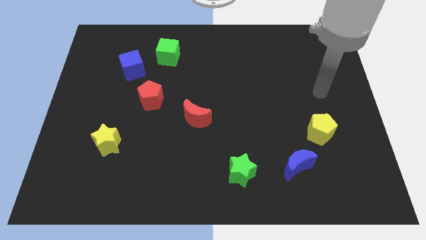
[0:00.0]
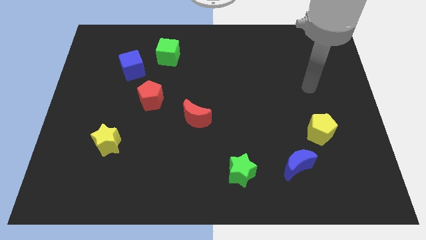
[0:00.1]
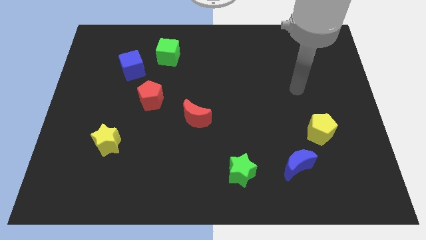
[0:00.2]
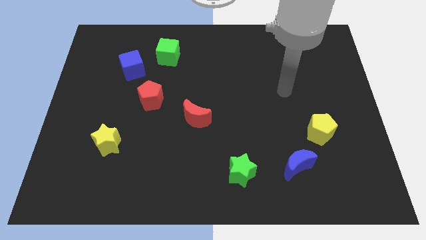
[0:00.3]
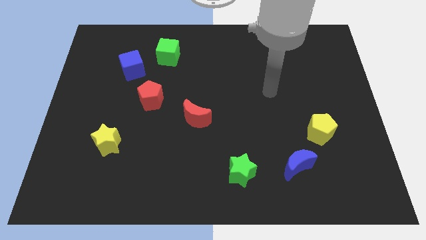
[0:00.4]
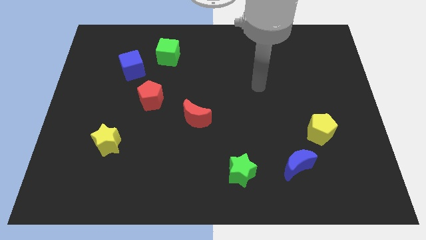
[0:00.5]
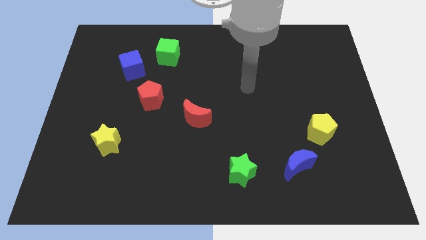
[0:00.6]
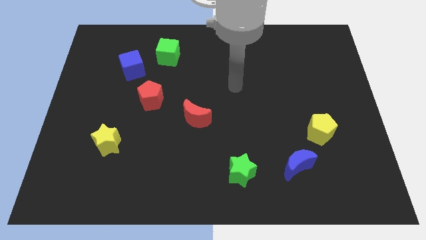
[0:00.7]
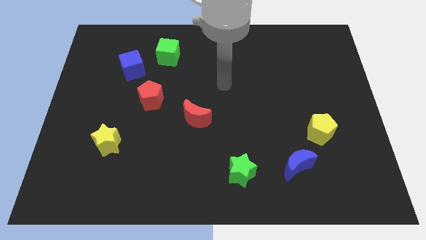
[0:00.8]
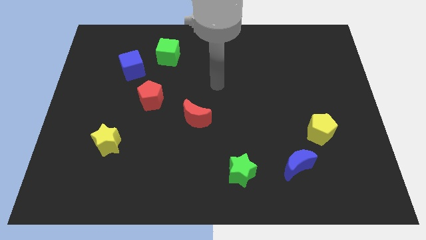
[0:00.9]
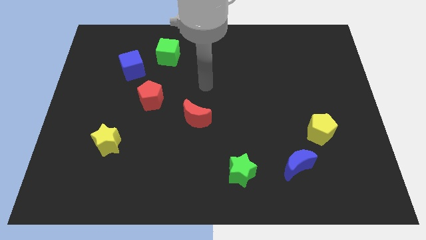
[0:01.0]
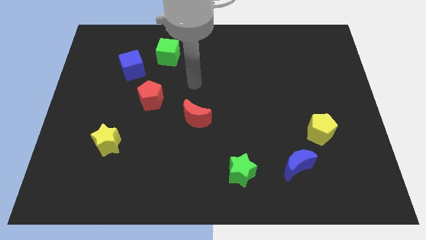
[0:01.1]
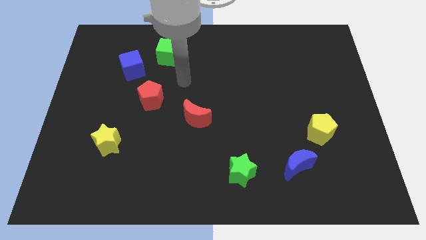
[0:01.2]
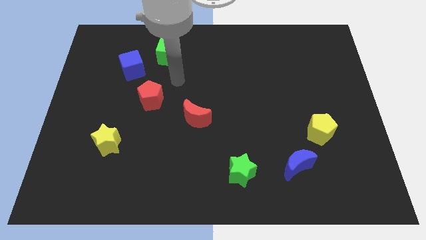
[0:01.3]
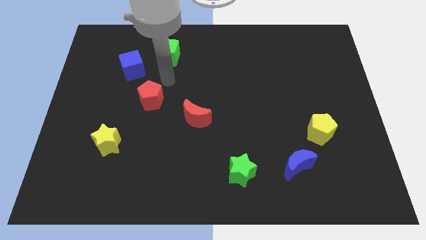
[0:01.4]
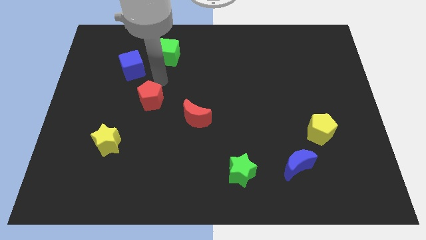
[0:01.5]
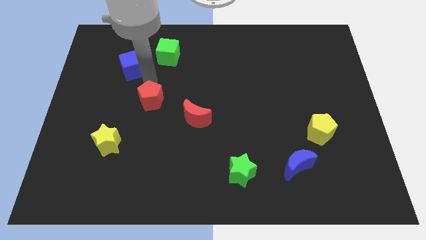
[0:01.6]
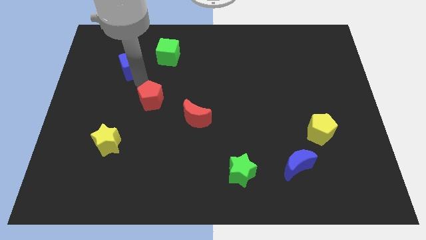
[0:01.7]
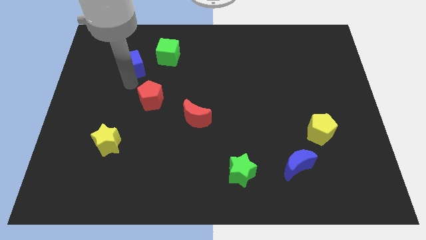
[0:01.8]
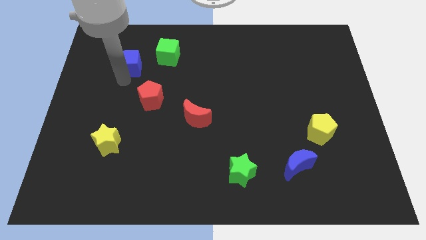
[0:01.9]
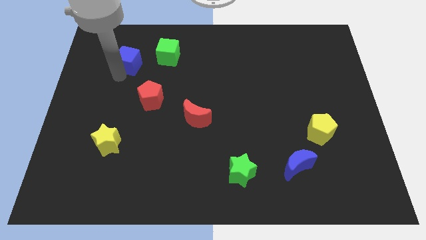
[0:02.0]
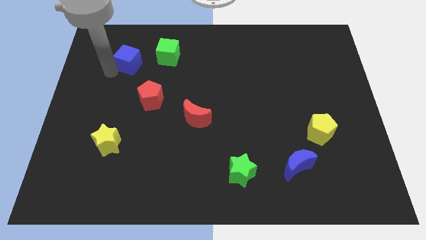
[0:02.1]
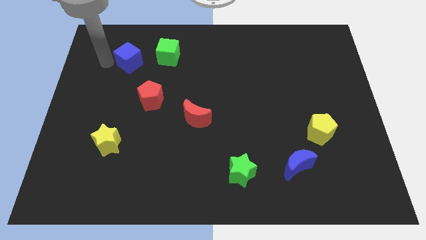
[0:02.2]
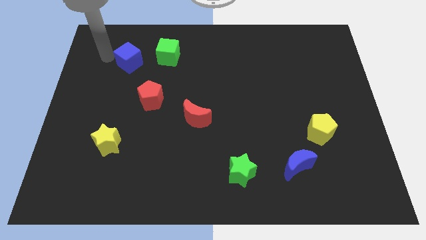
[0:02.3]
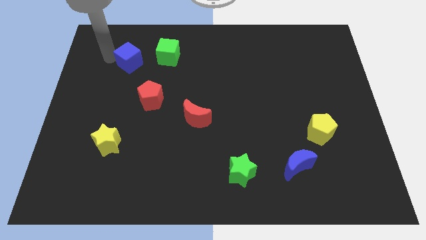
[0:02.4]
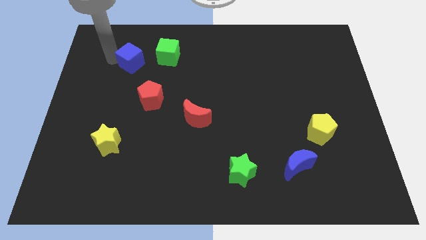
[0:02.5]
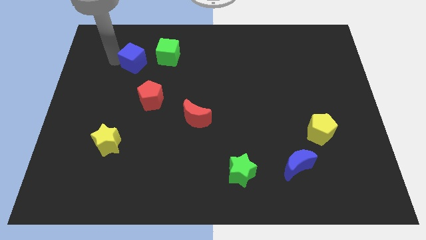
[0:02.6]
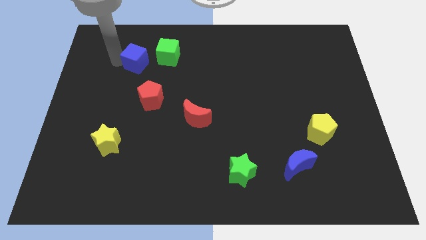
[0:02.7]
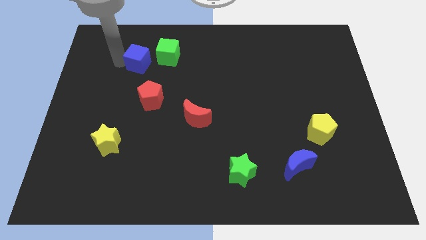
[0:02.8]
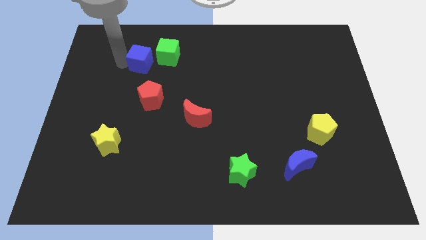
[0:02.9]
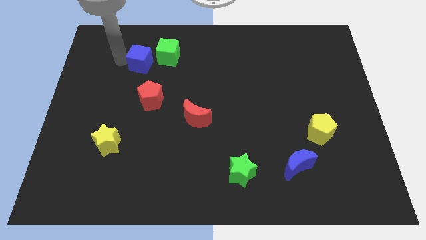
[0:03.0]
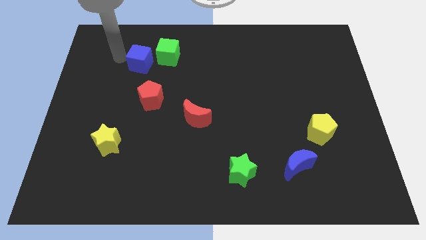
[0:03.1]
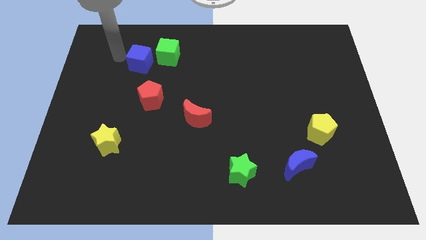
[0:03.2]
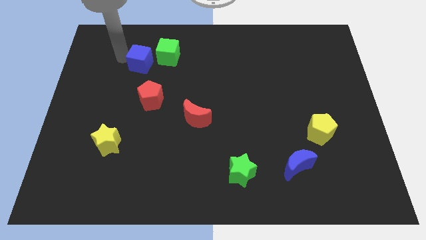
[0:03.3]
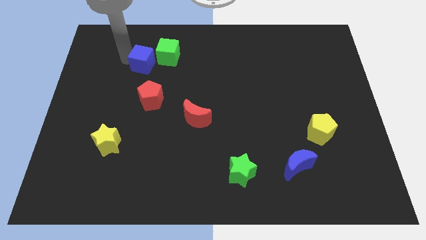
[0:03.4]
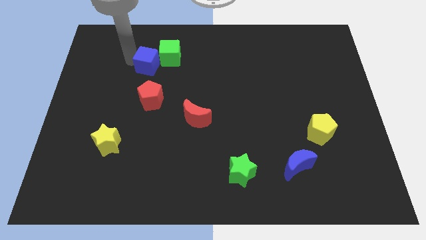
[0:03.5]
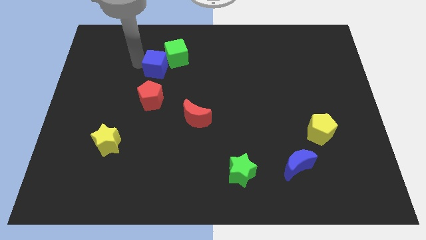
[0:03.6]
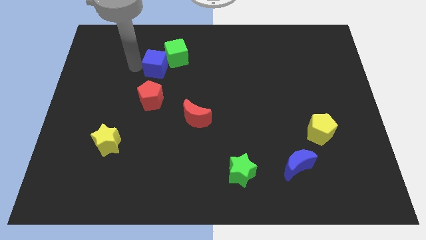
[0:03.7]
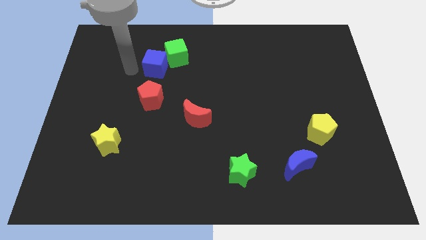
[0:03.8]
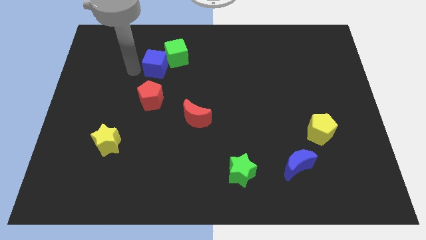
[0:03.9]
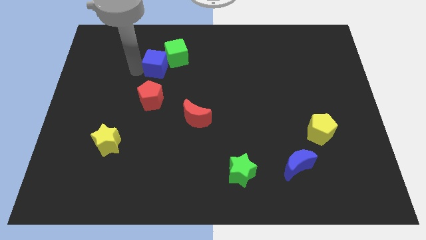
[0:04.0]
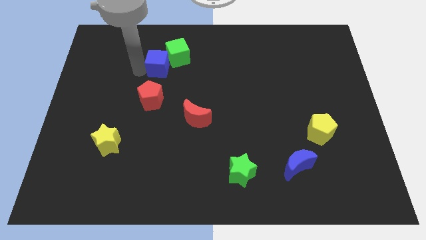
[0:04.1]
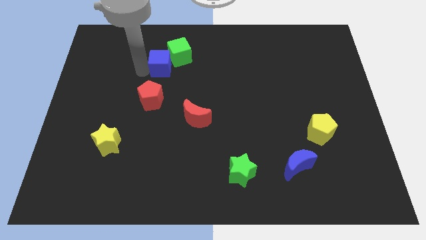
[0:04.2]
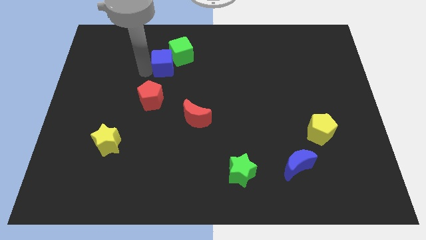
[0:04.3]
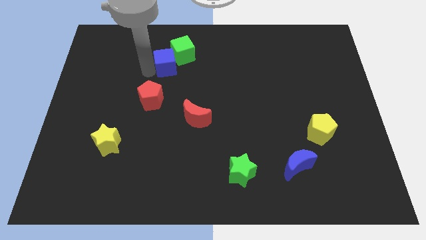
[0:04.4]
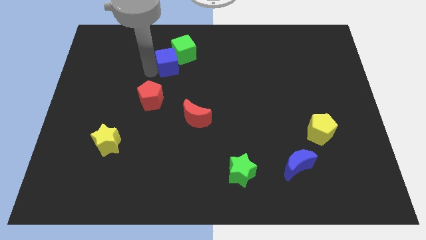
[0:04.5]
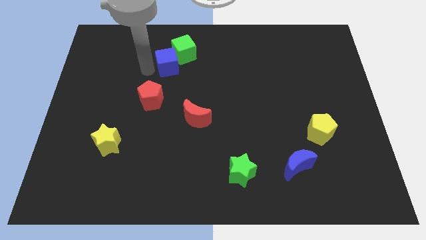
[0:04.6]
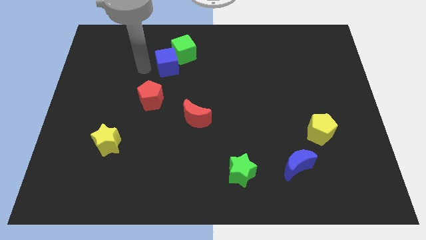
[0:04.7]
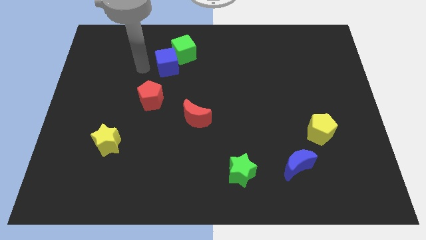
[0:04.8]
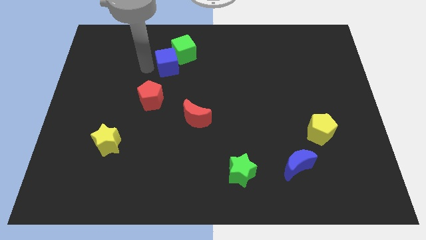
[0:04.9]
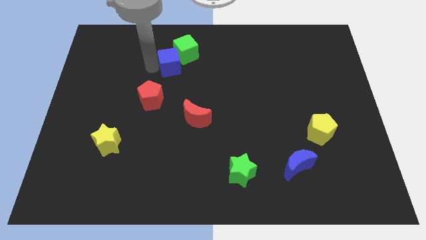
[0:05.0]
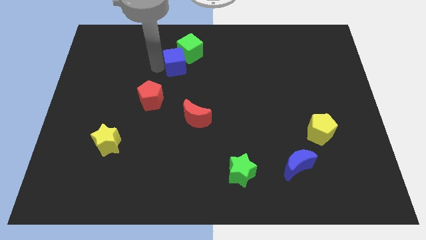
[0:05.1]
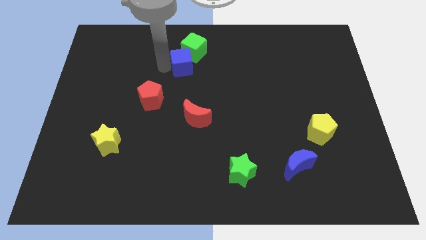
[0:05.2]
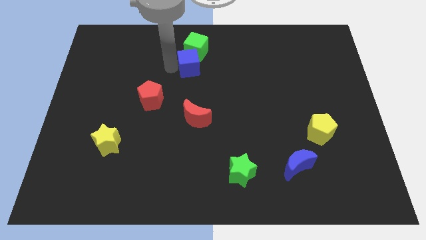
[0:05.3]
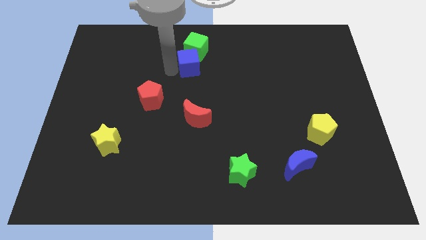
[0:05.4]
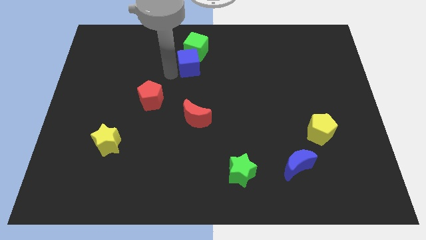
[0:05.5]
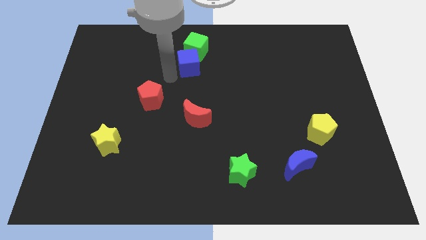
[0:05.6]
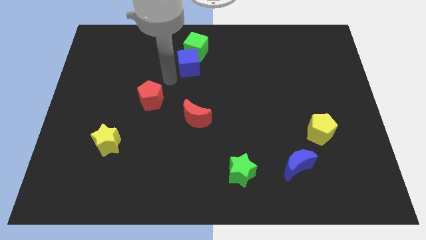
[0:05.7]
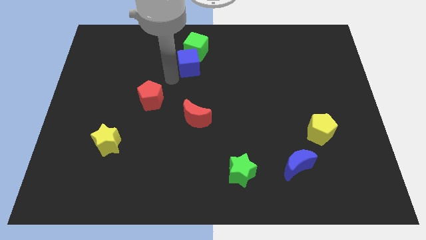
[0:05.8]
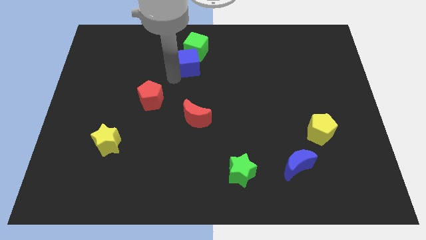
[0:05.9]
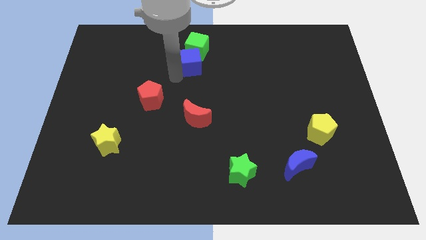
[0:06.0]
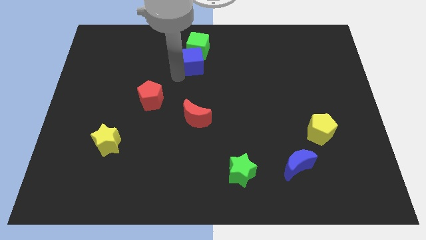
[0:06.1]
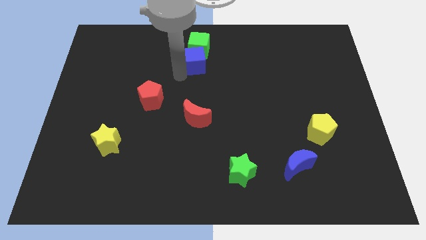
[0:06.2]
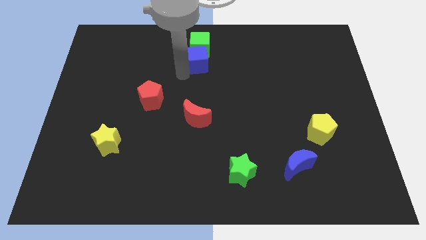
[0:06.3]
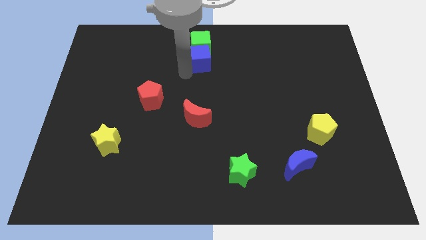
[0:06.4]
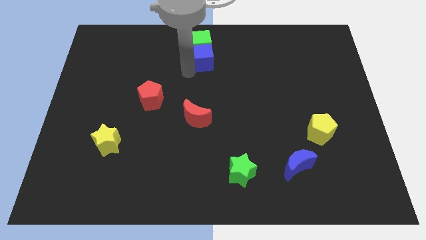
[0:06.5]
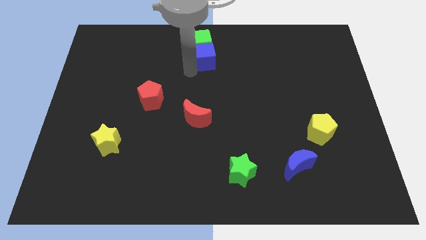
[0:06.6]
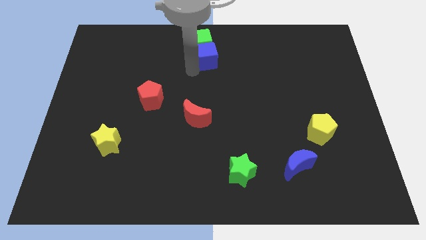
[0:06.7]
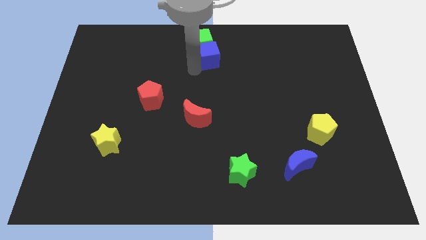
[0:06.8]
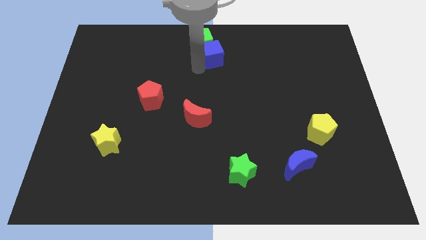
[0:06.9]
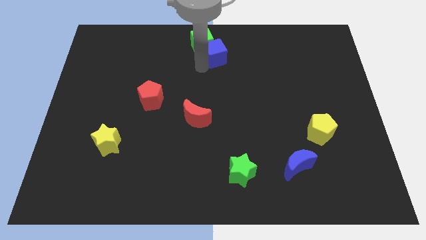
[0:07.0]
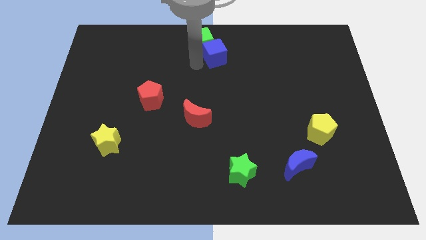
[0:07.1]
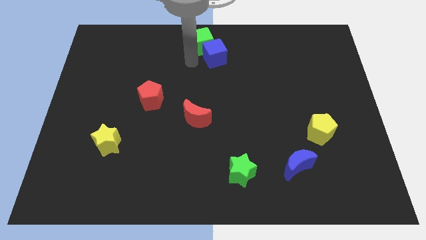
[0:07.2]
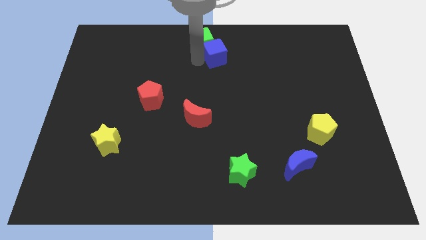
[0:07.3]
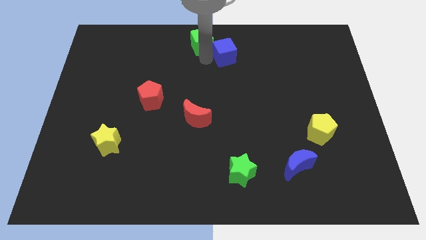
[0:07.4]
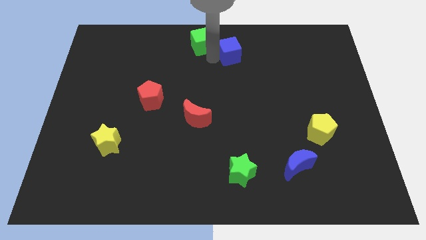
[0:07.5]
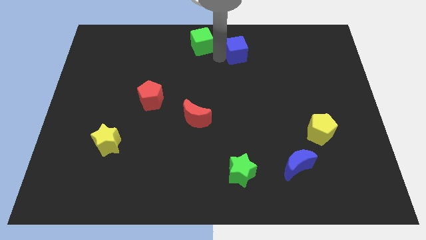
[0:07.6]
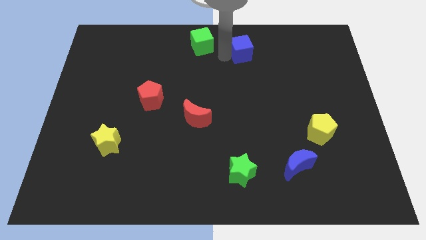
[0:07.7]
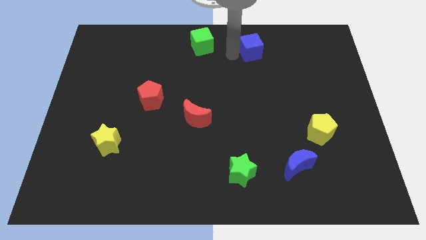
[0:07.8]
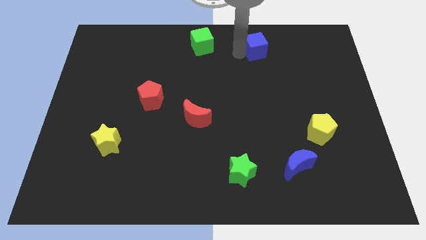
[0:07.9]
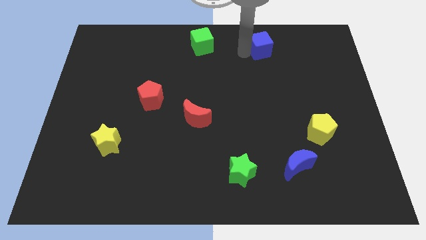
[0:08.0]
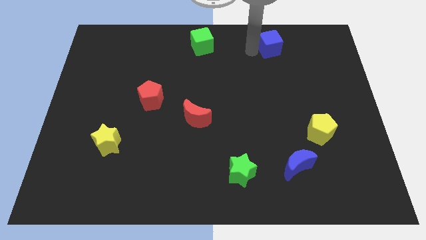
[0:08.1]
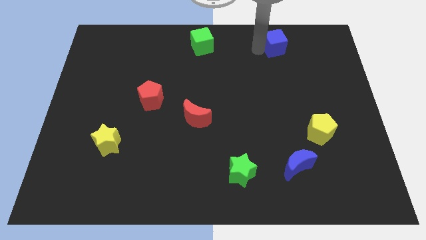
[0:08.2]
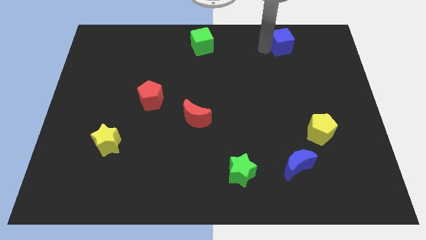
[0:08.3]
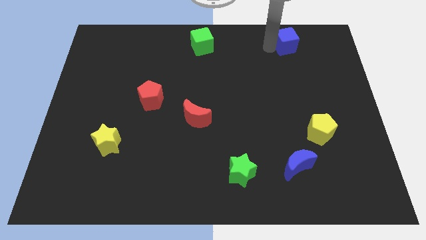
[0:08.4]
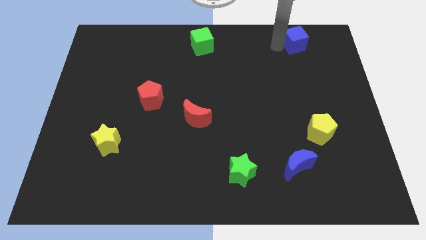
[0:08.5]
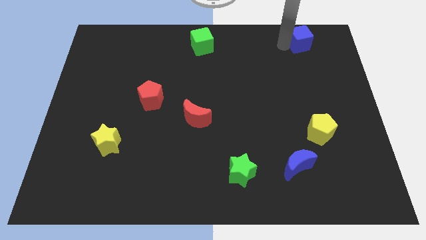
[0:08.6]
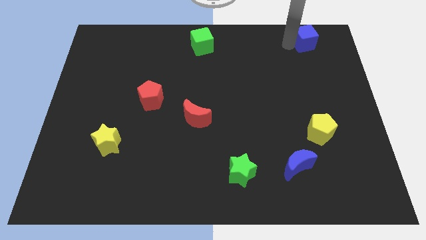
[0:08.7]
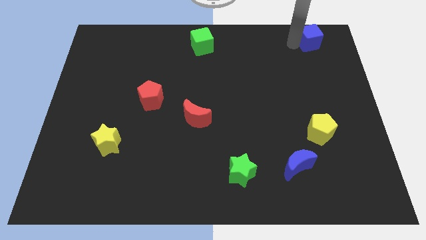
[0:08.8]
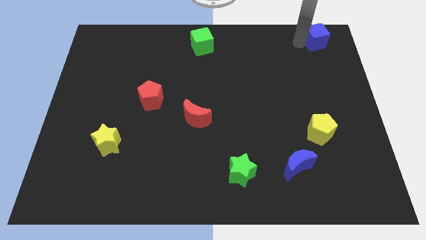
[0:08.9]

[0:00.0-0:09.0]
push the blue cube to the upper right corner
